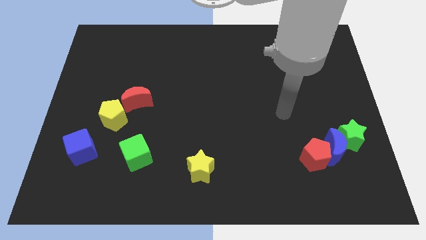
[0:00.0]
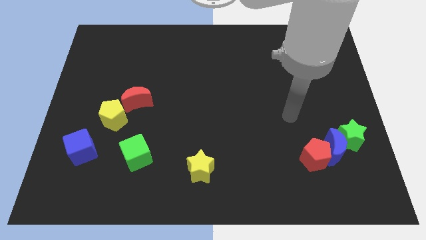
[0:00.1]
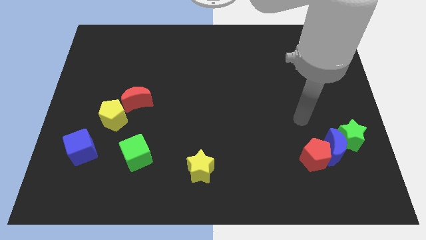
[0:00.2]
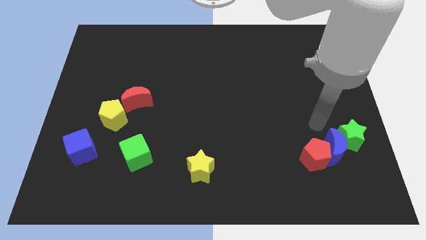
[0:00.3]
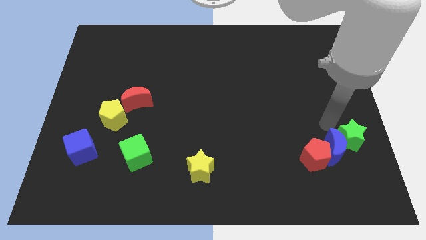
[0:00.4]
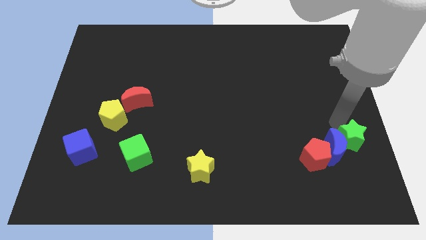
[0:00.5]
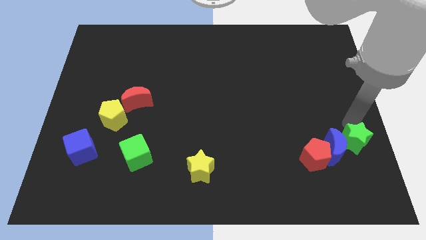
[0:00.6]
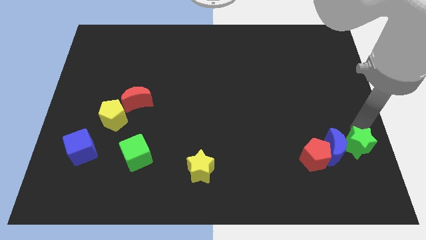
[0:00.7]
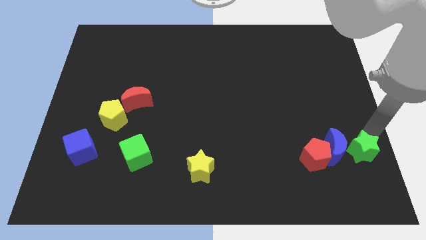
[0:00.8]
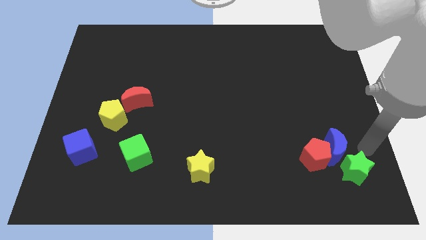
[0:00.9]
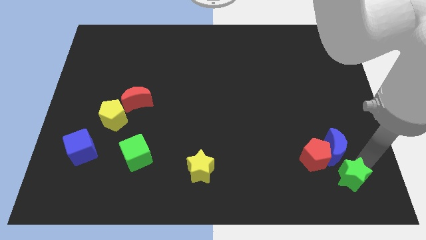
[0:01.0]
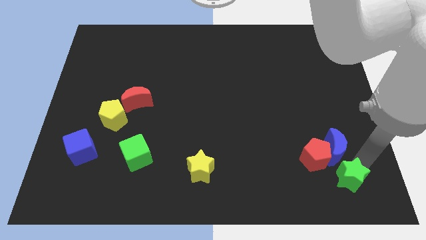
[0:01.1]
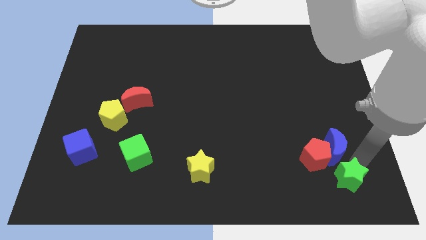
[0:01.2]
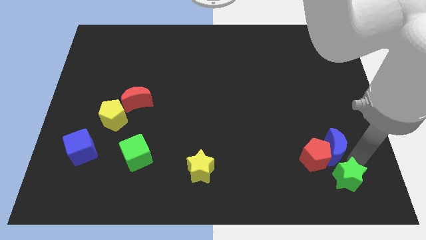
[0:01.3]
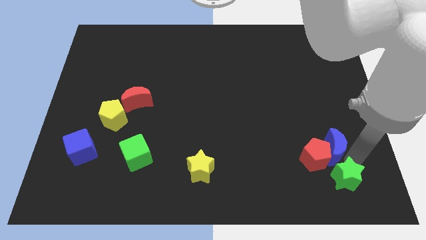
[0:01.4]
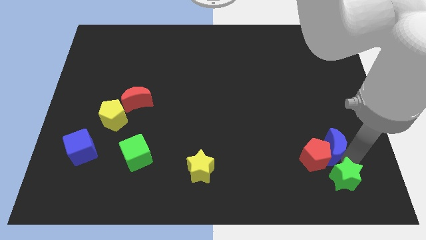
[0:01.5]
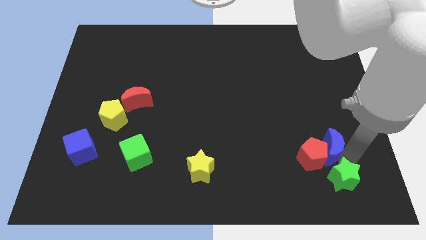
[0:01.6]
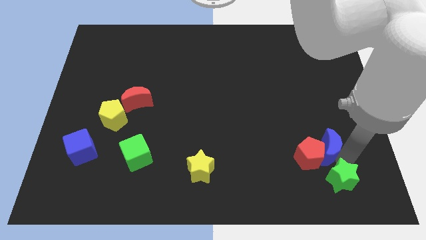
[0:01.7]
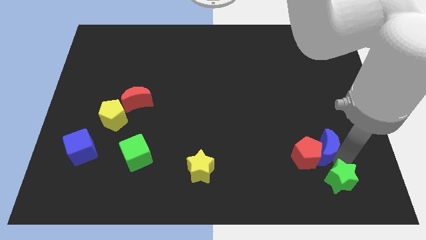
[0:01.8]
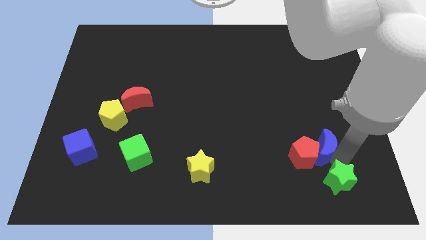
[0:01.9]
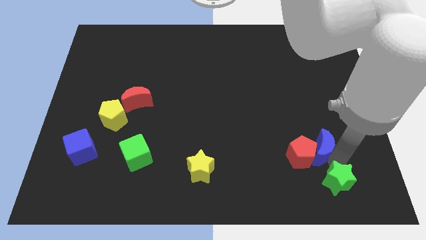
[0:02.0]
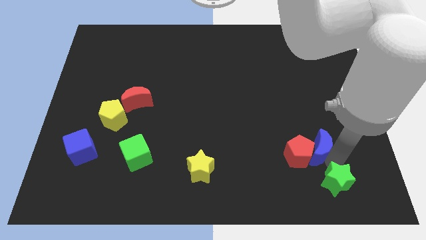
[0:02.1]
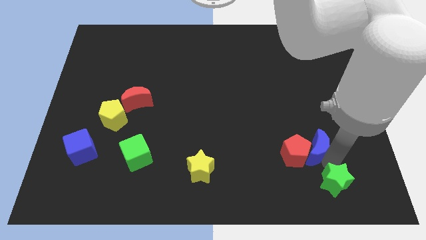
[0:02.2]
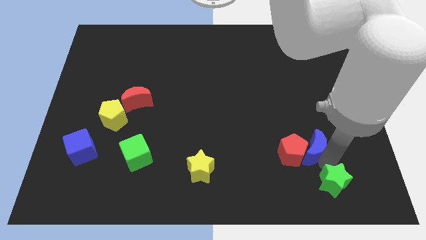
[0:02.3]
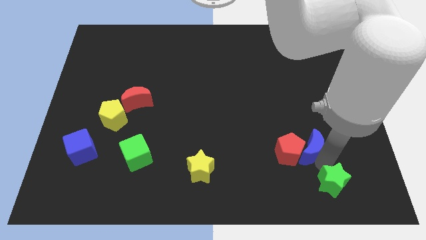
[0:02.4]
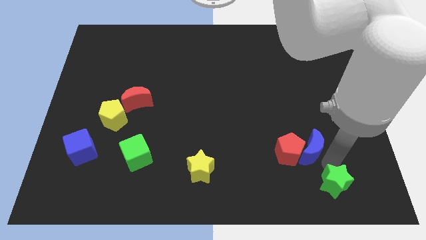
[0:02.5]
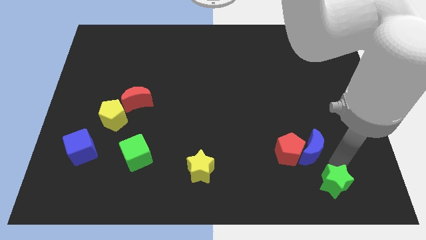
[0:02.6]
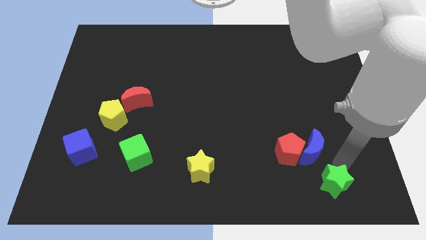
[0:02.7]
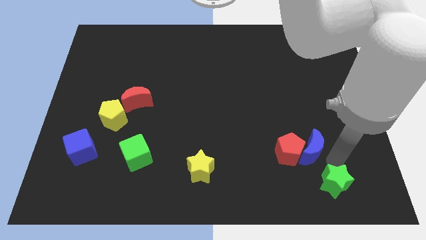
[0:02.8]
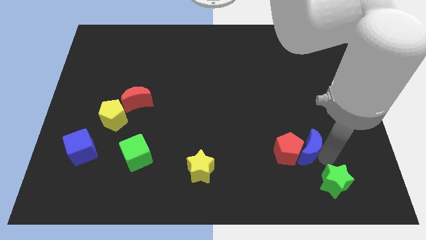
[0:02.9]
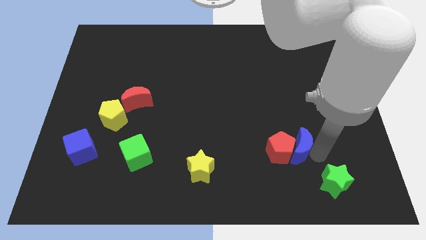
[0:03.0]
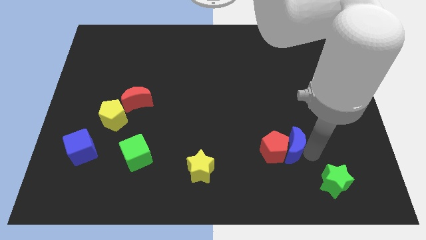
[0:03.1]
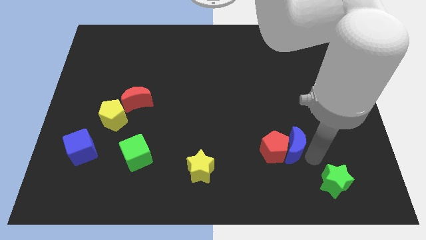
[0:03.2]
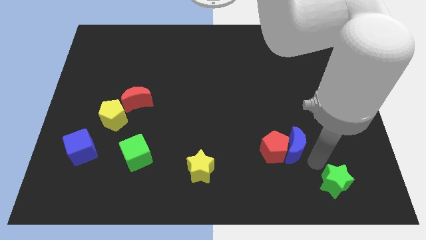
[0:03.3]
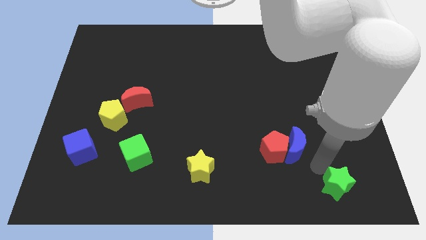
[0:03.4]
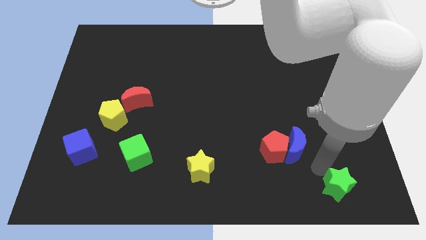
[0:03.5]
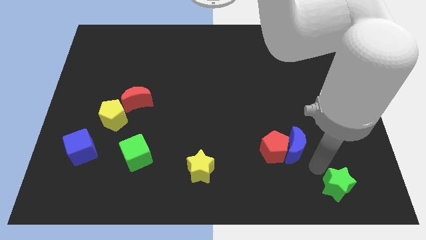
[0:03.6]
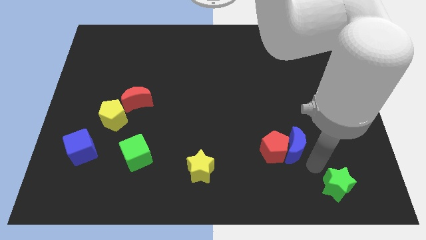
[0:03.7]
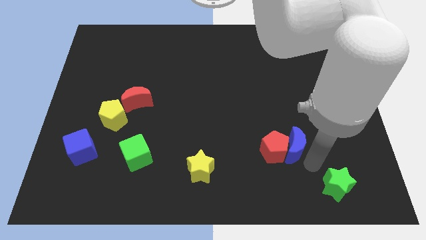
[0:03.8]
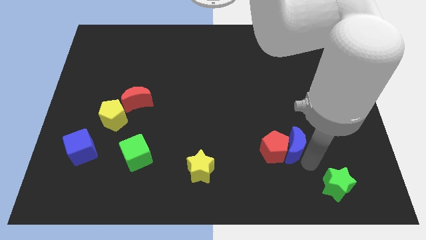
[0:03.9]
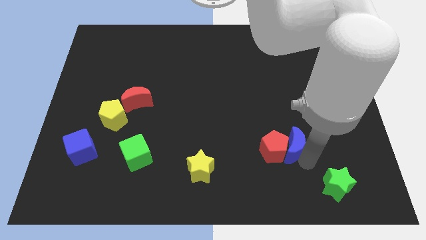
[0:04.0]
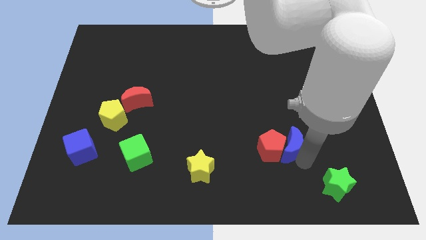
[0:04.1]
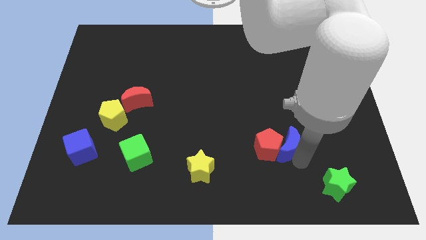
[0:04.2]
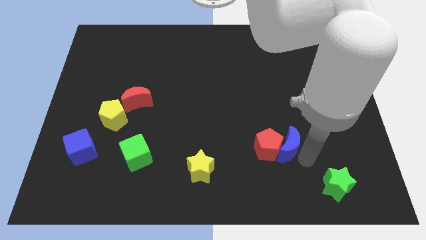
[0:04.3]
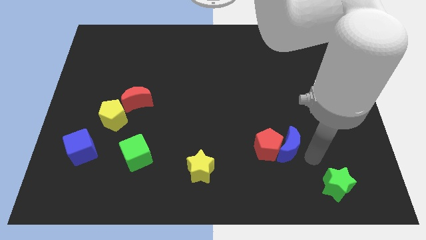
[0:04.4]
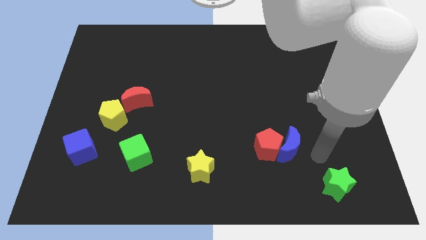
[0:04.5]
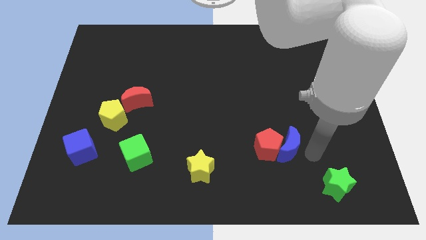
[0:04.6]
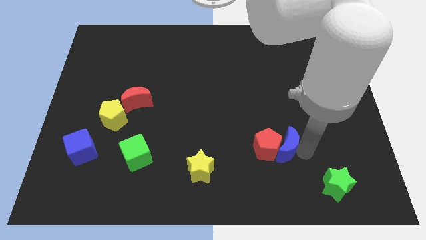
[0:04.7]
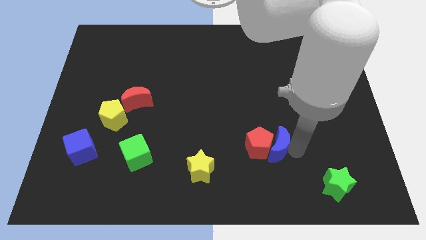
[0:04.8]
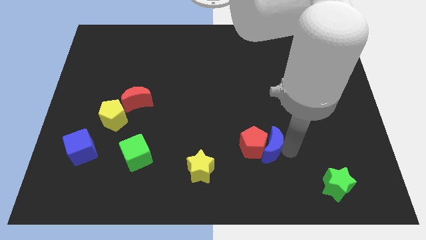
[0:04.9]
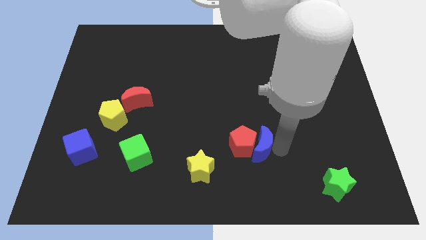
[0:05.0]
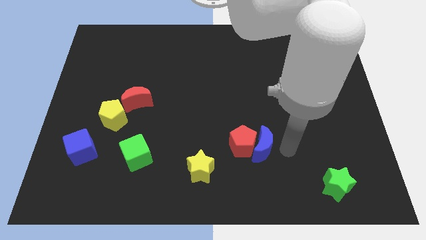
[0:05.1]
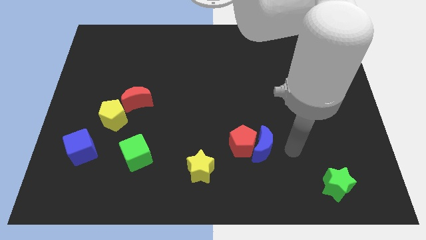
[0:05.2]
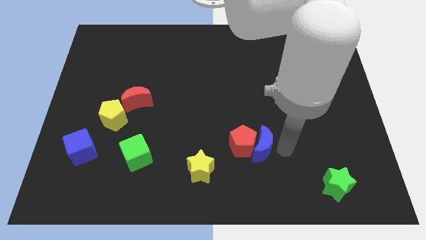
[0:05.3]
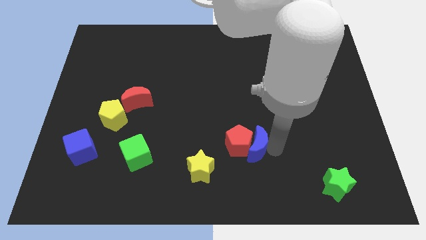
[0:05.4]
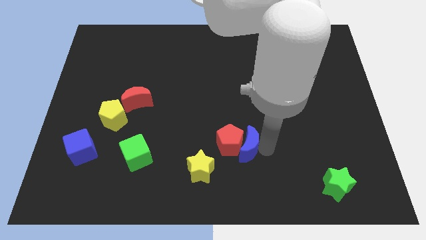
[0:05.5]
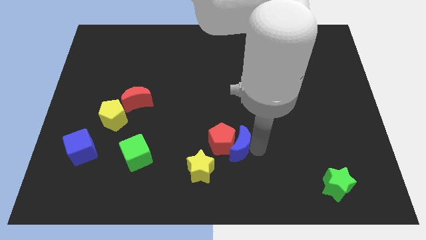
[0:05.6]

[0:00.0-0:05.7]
slide the blue moon left

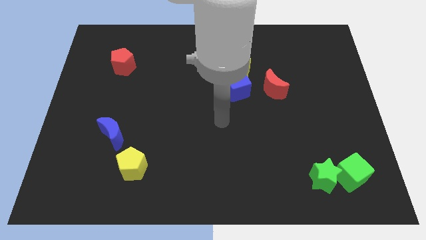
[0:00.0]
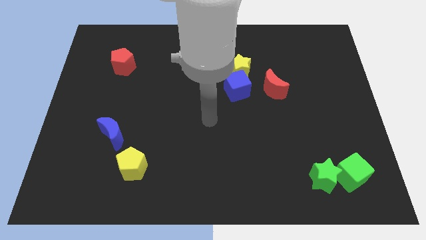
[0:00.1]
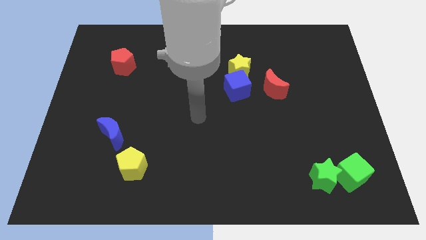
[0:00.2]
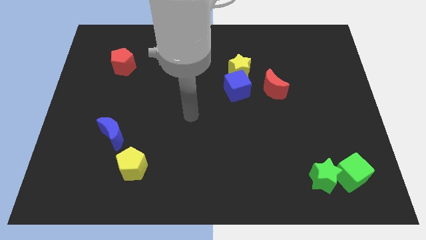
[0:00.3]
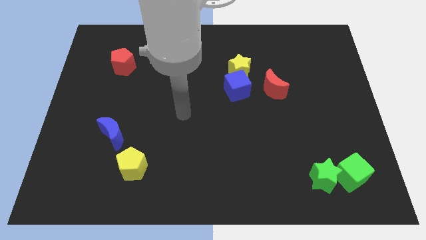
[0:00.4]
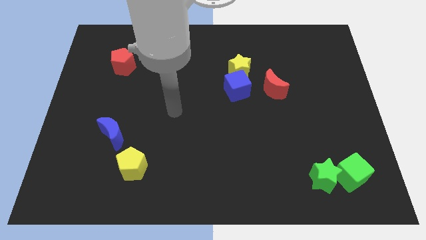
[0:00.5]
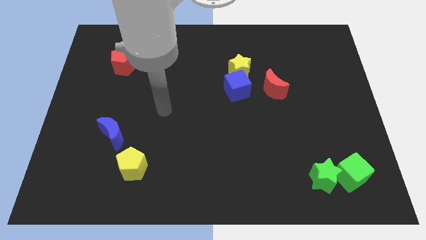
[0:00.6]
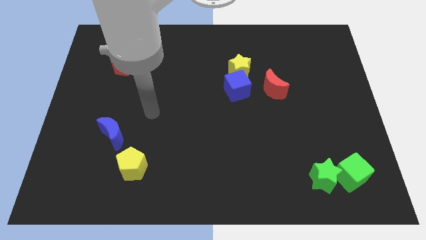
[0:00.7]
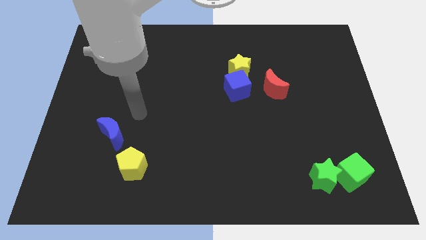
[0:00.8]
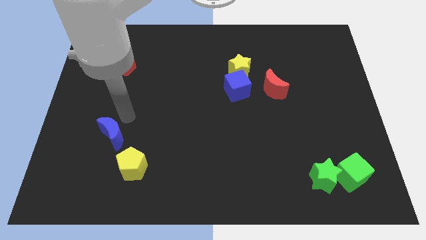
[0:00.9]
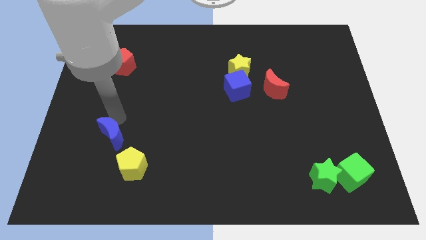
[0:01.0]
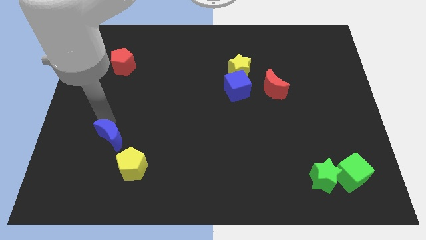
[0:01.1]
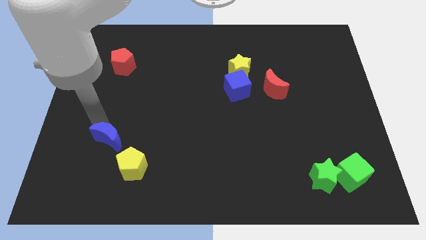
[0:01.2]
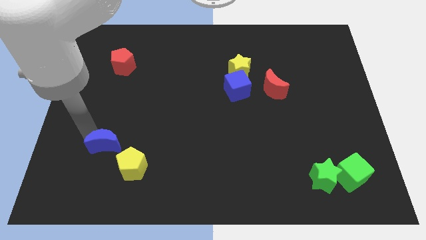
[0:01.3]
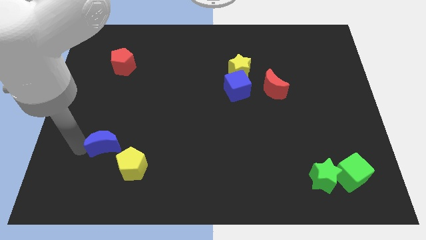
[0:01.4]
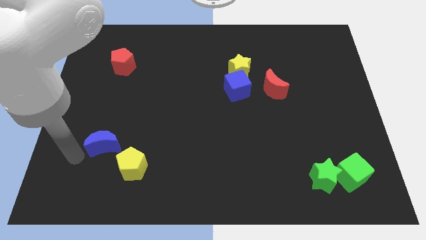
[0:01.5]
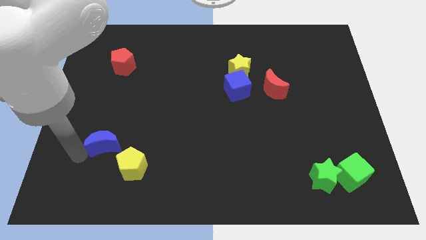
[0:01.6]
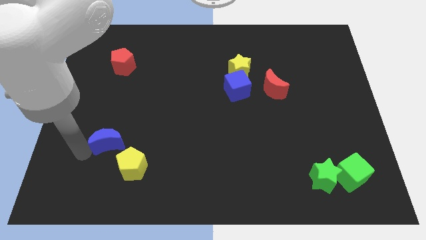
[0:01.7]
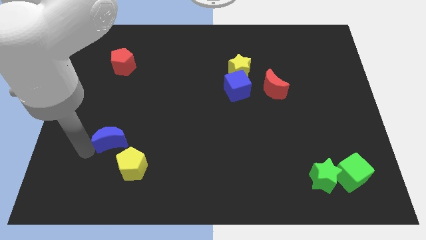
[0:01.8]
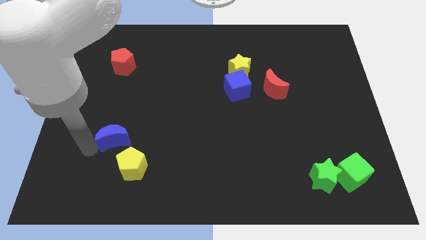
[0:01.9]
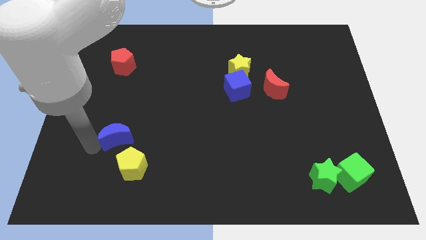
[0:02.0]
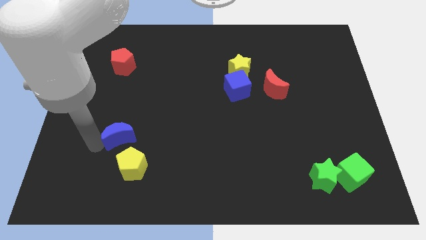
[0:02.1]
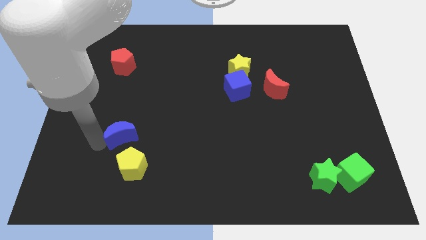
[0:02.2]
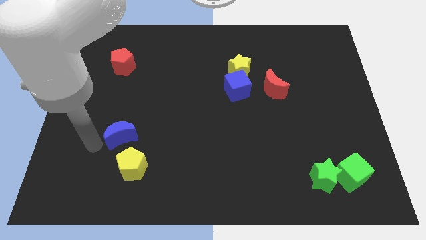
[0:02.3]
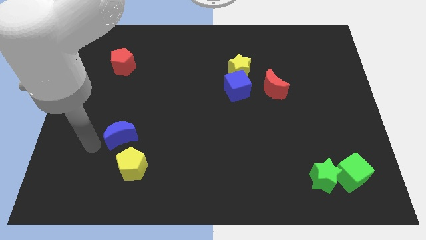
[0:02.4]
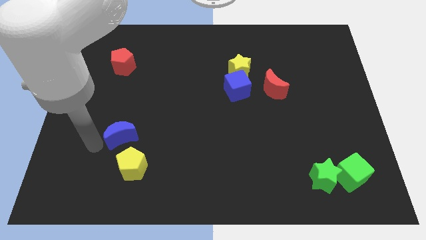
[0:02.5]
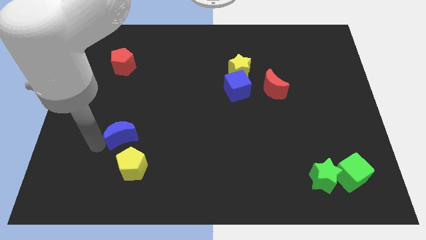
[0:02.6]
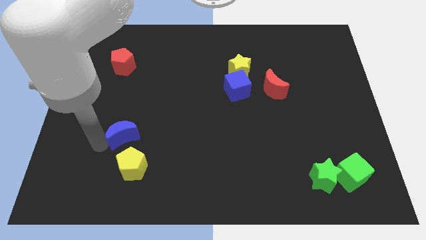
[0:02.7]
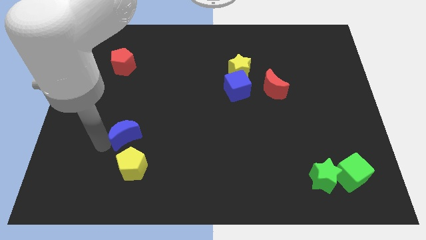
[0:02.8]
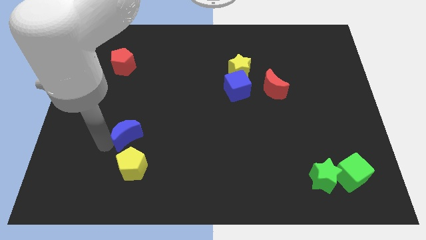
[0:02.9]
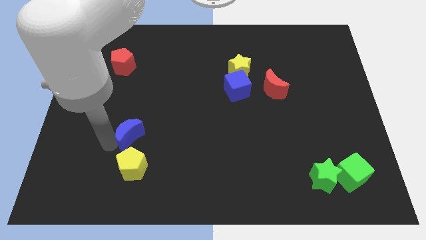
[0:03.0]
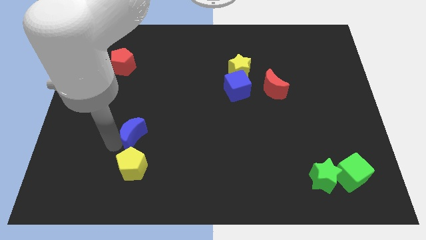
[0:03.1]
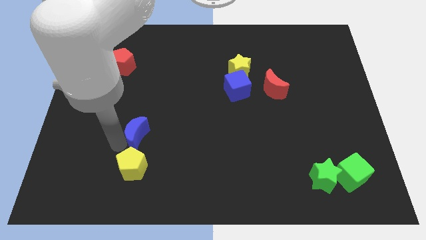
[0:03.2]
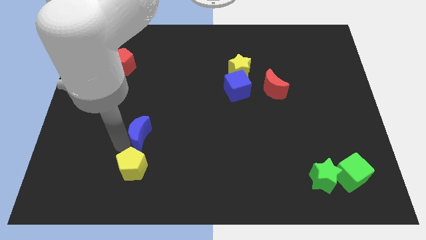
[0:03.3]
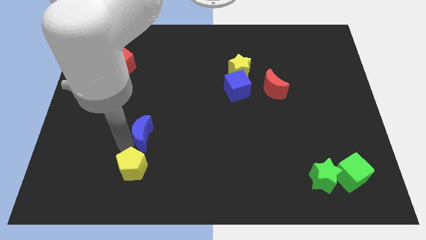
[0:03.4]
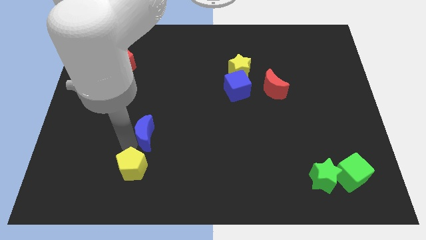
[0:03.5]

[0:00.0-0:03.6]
slide the blue moon a bit to the right
